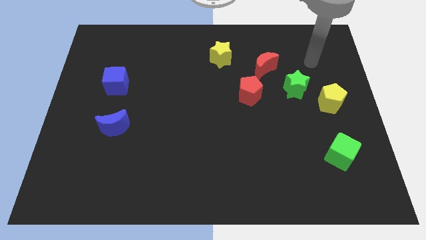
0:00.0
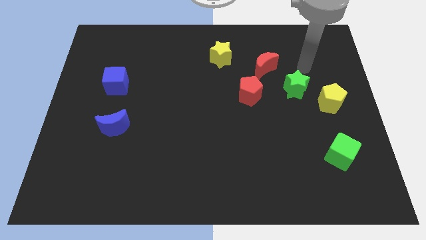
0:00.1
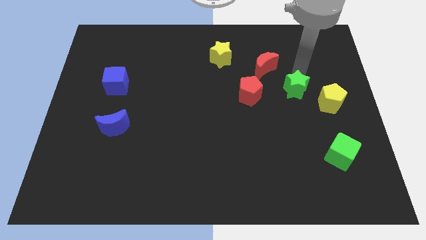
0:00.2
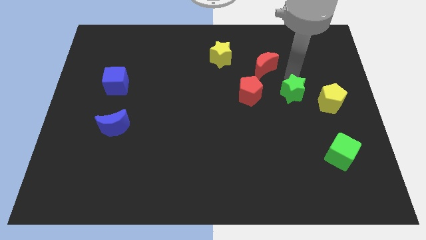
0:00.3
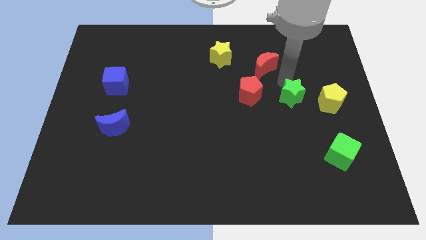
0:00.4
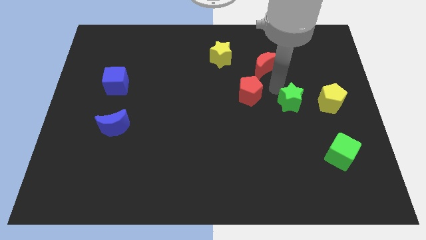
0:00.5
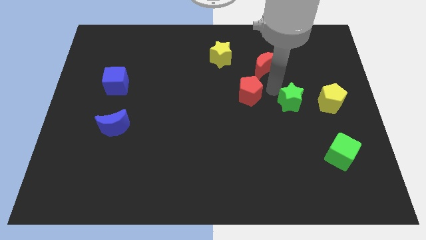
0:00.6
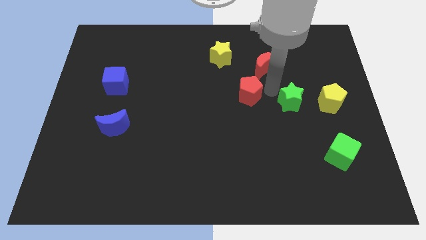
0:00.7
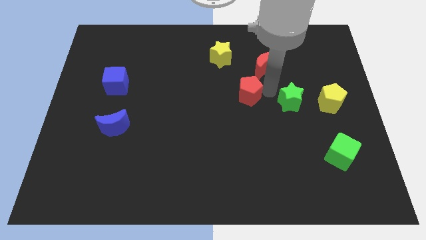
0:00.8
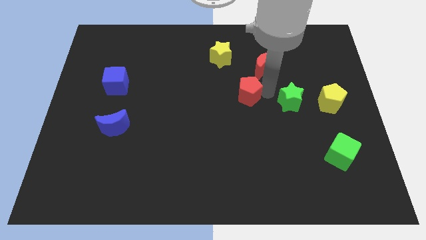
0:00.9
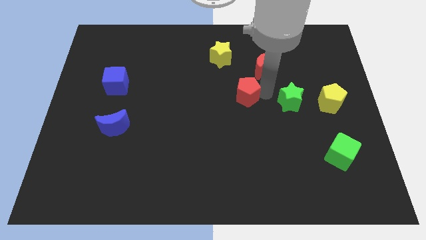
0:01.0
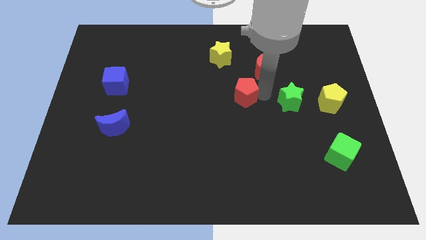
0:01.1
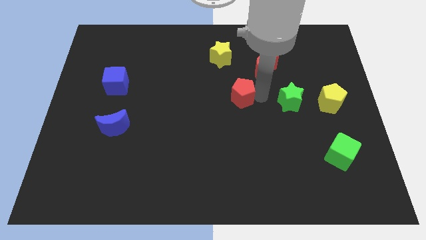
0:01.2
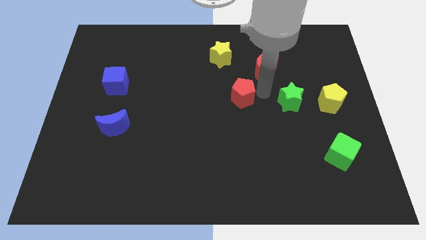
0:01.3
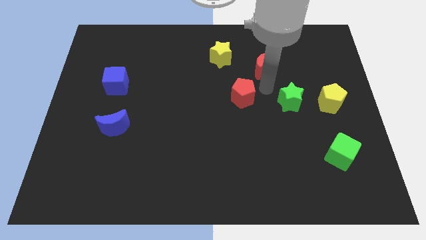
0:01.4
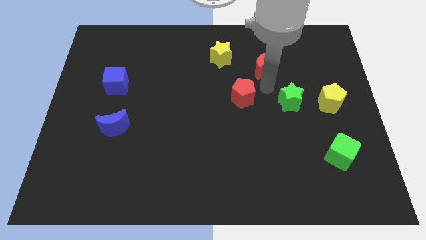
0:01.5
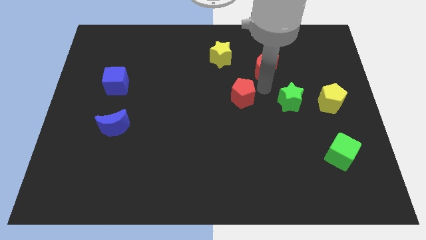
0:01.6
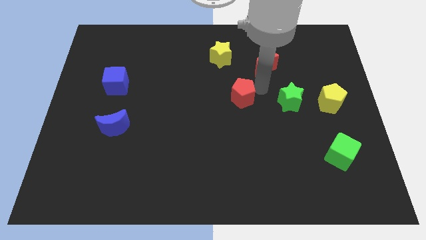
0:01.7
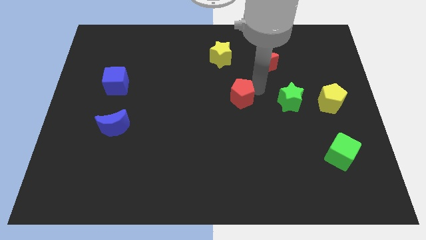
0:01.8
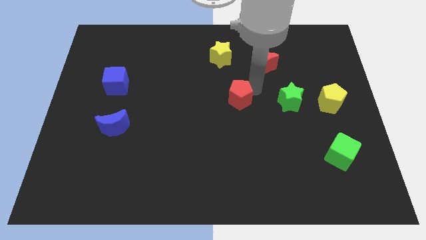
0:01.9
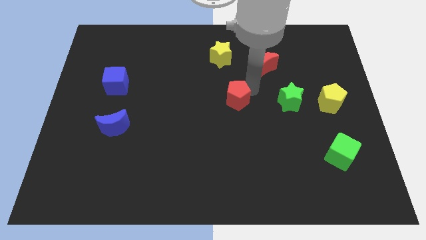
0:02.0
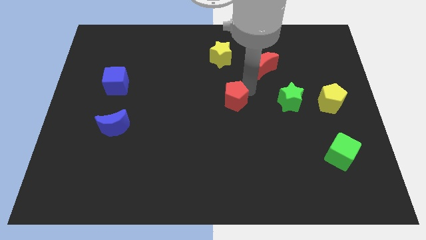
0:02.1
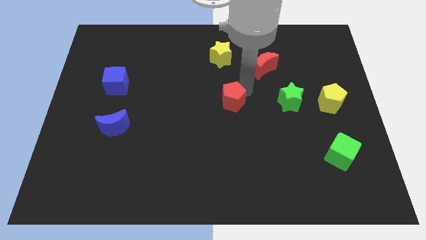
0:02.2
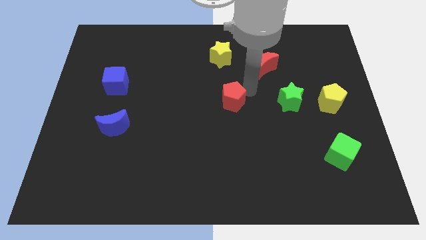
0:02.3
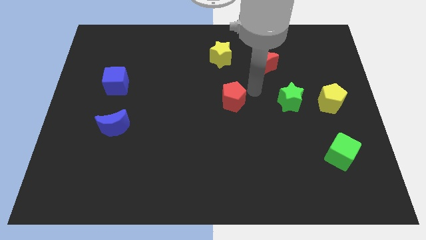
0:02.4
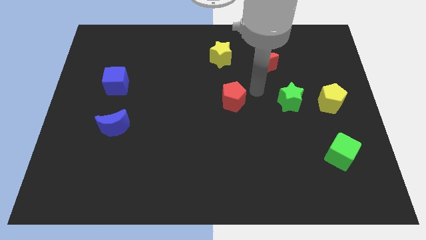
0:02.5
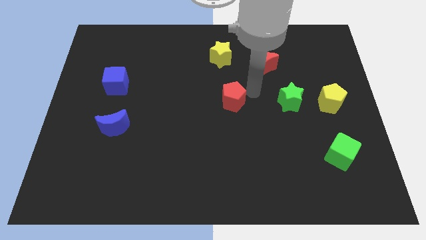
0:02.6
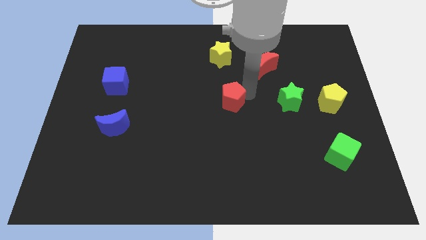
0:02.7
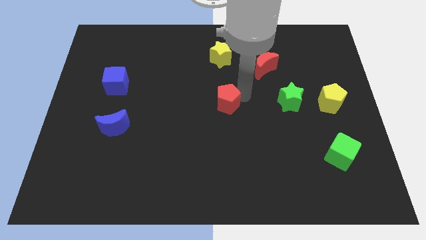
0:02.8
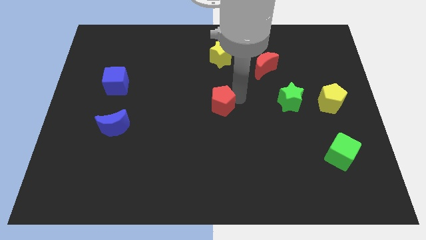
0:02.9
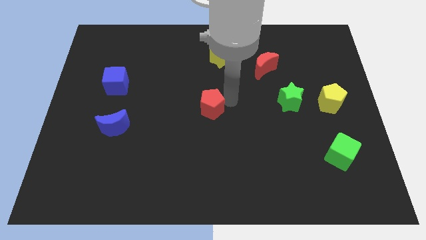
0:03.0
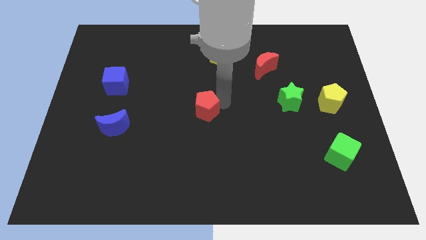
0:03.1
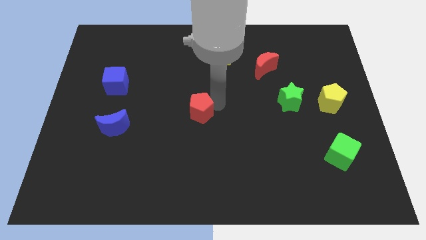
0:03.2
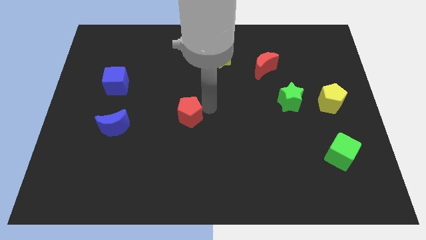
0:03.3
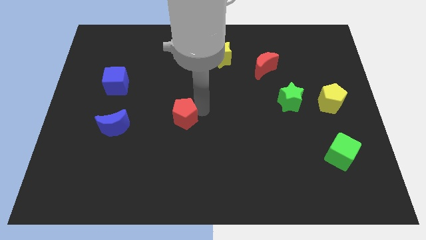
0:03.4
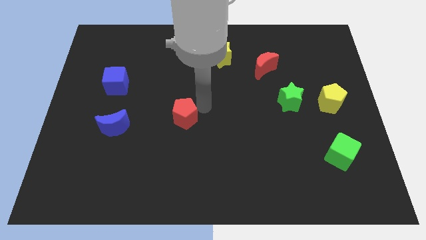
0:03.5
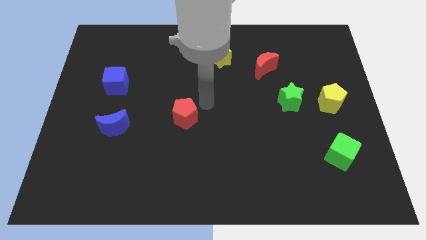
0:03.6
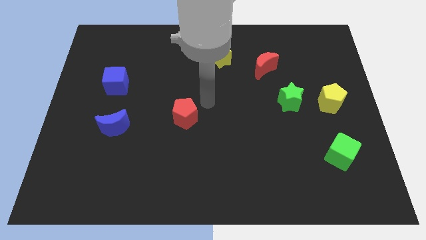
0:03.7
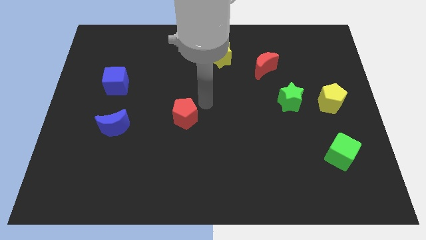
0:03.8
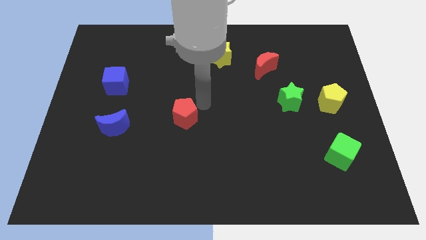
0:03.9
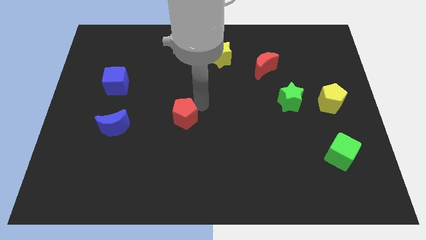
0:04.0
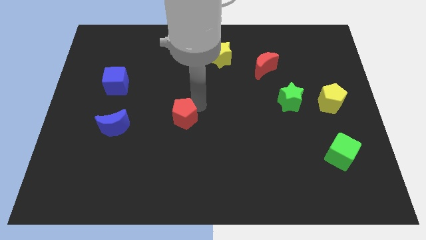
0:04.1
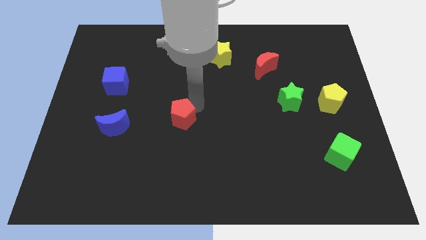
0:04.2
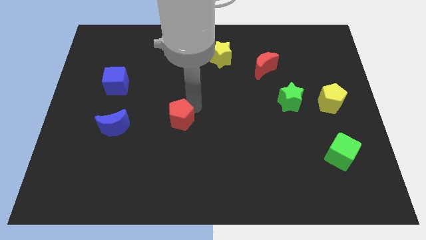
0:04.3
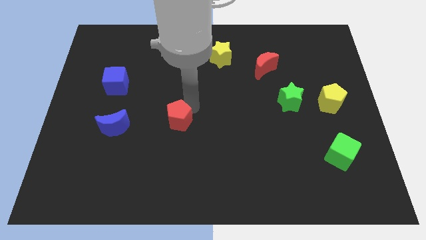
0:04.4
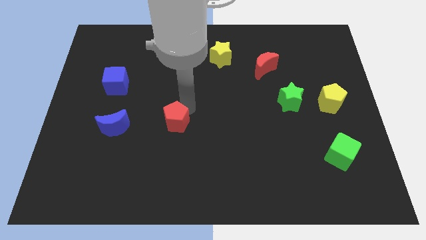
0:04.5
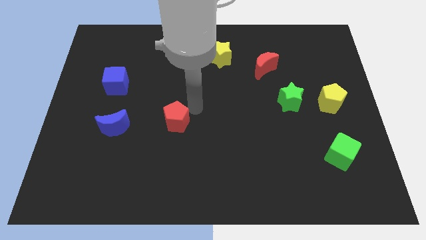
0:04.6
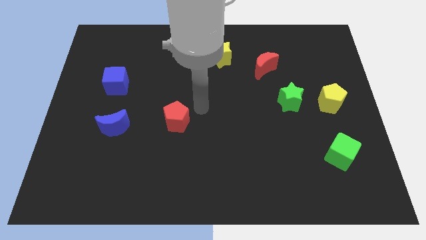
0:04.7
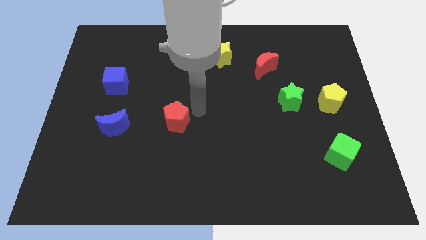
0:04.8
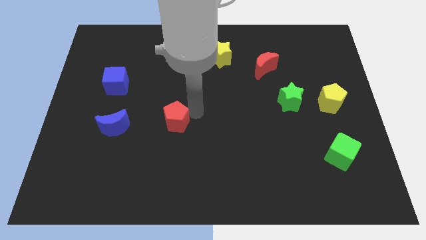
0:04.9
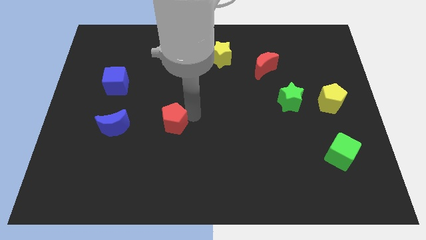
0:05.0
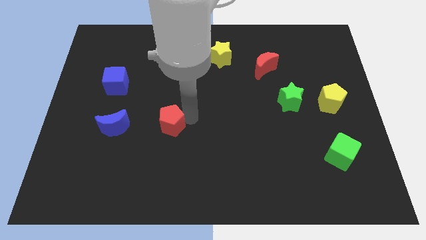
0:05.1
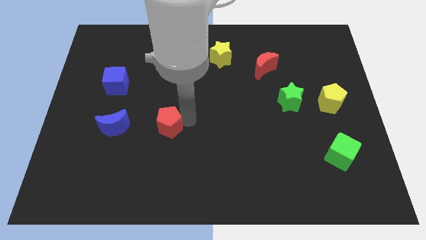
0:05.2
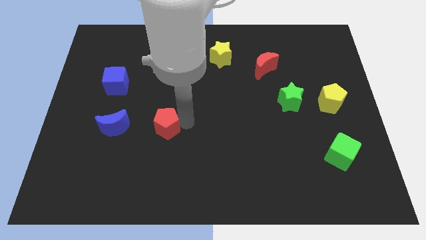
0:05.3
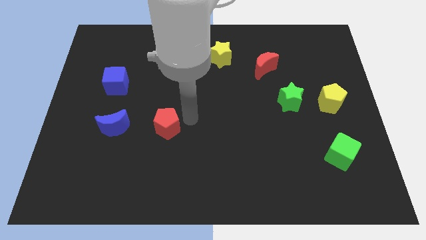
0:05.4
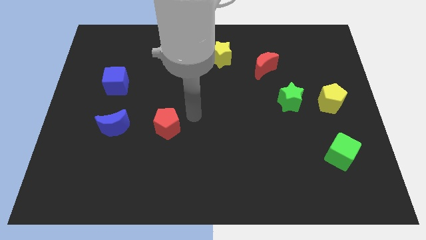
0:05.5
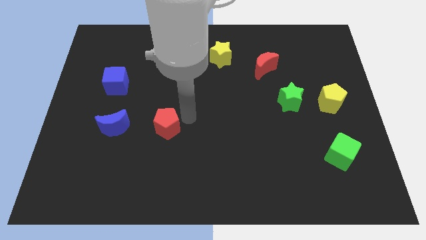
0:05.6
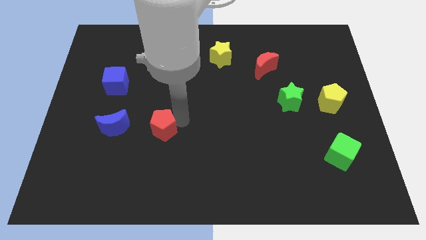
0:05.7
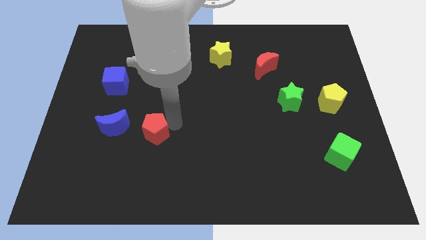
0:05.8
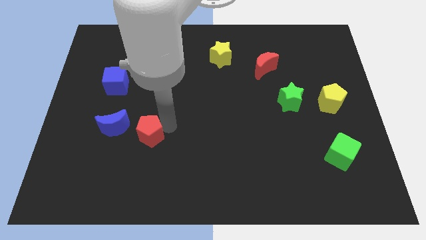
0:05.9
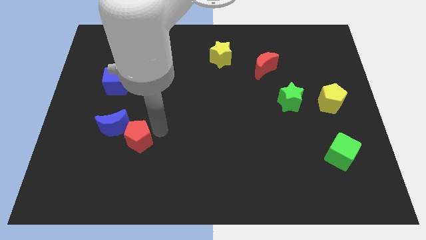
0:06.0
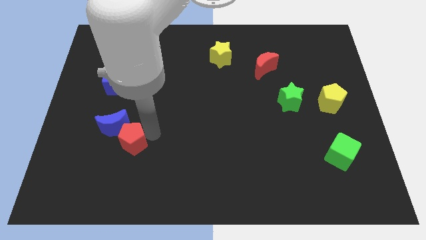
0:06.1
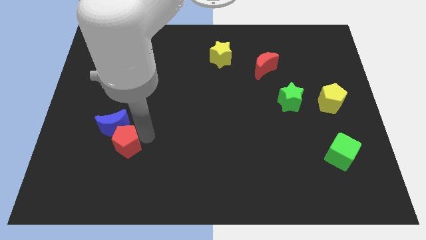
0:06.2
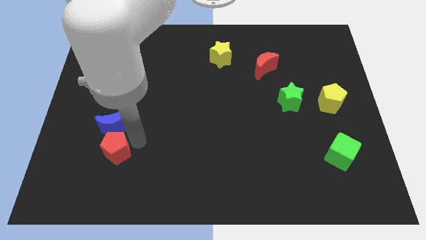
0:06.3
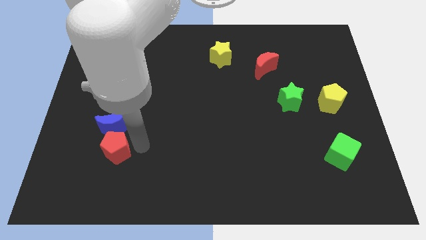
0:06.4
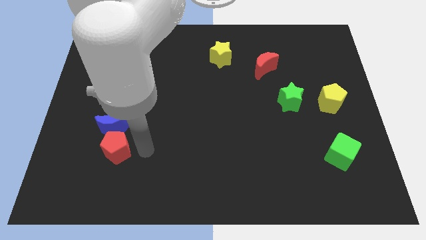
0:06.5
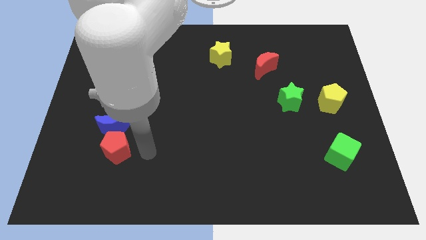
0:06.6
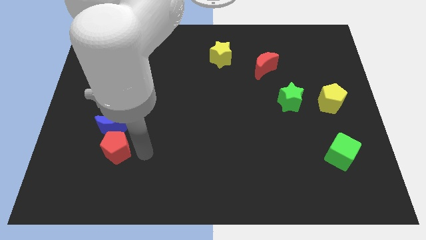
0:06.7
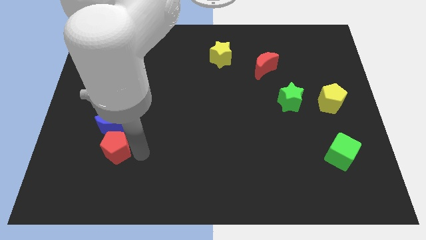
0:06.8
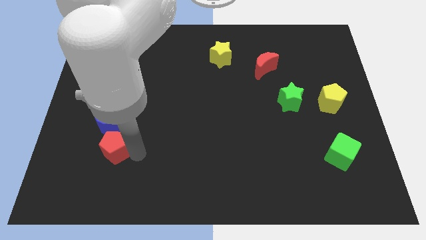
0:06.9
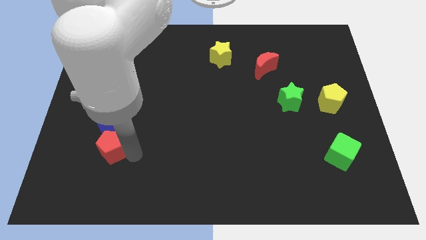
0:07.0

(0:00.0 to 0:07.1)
slide the red pentagon to the bottom left side of the blue moon
